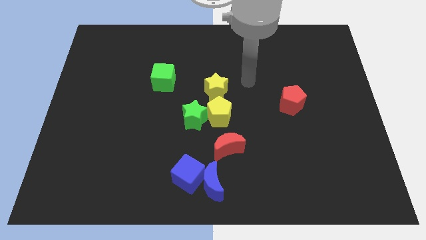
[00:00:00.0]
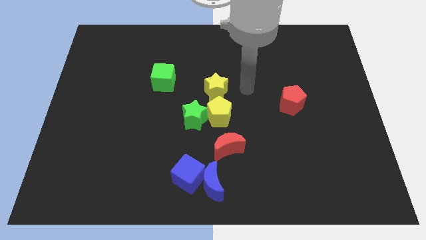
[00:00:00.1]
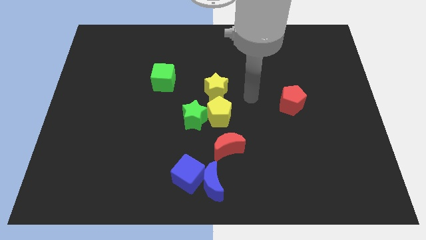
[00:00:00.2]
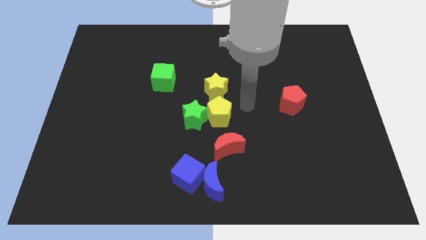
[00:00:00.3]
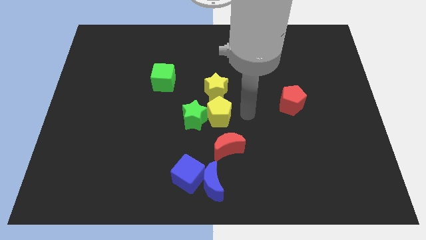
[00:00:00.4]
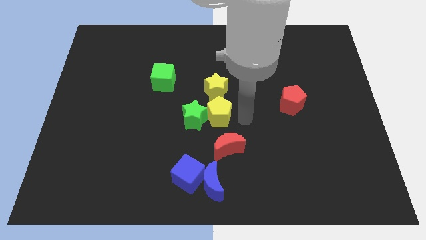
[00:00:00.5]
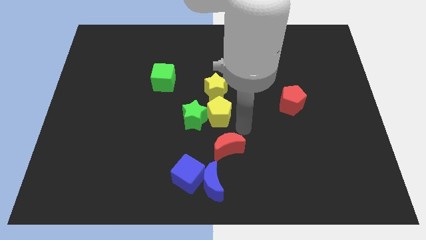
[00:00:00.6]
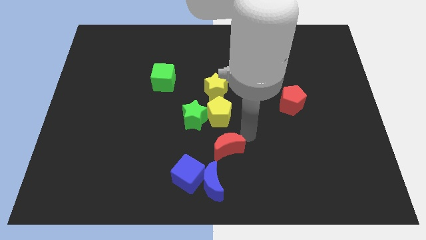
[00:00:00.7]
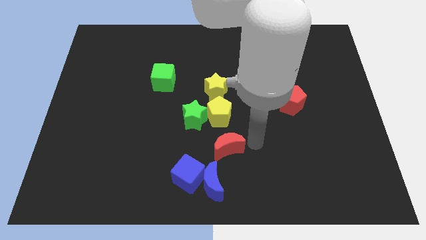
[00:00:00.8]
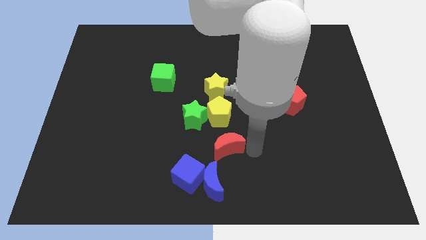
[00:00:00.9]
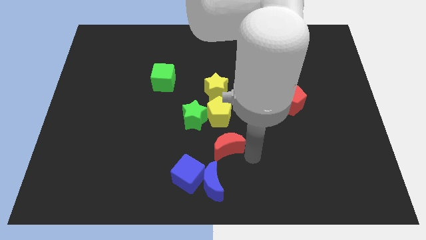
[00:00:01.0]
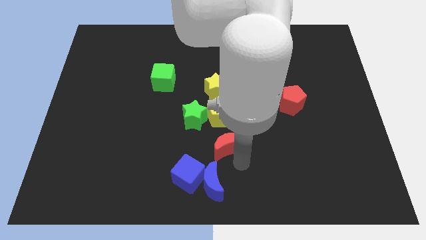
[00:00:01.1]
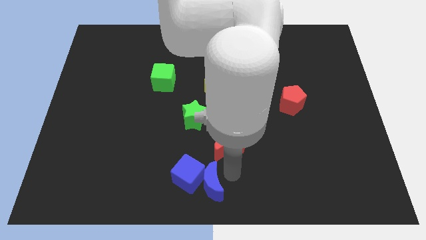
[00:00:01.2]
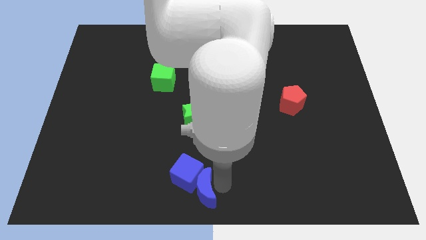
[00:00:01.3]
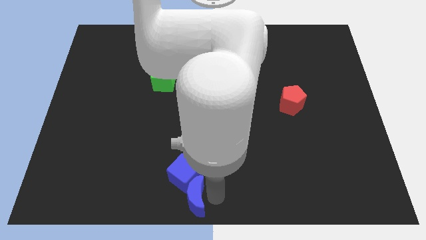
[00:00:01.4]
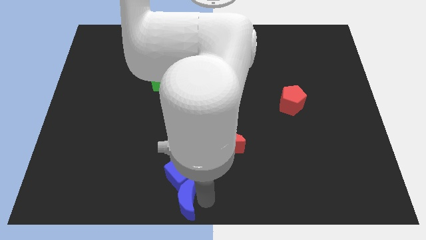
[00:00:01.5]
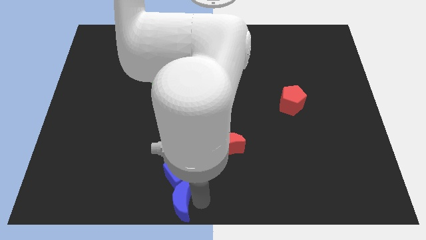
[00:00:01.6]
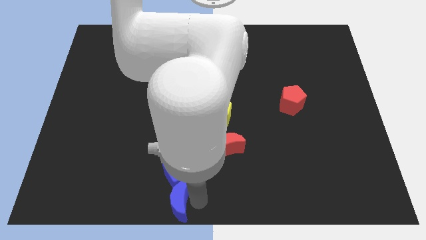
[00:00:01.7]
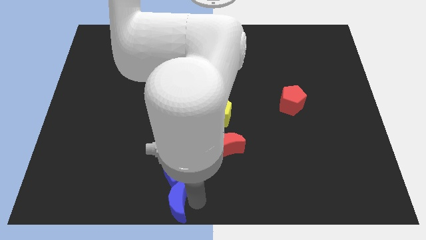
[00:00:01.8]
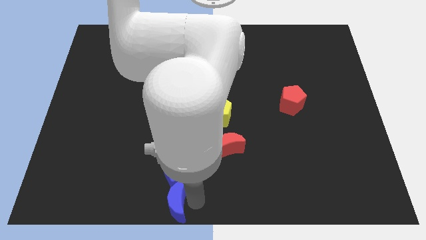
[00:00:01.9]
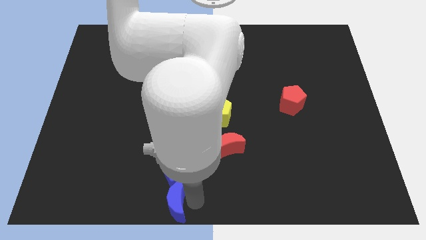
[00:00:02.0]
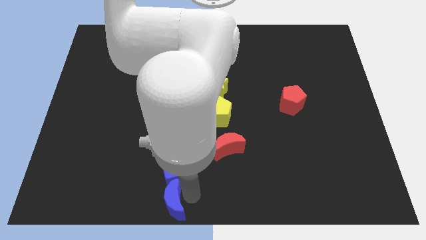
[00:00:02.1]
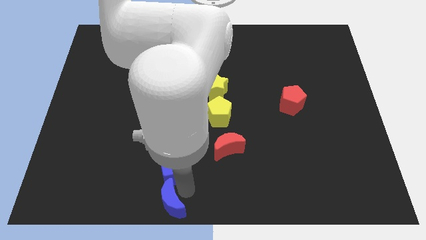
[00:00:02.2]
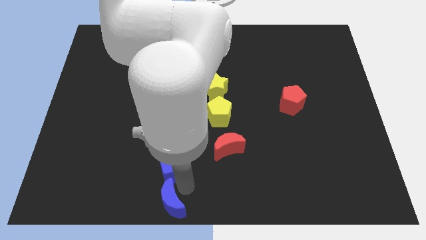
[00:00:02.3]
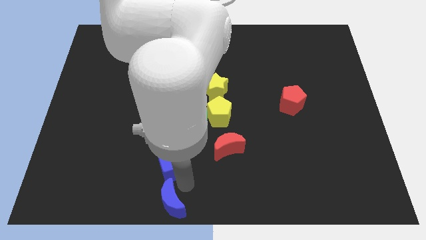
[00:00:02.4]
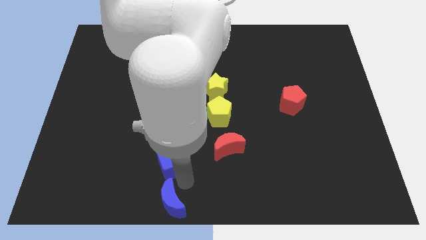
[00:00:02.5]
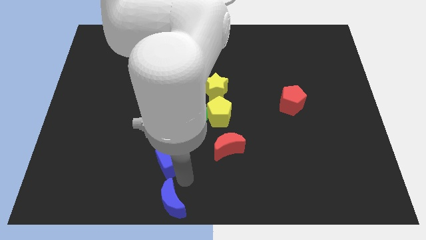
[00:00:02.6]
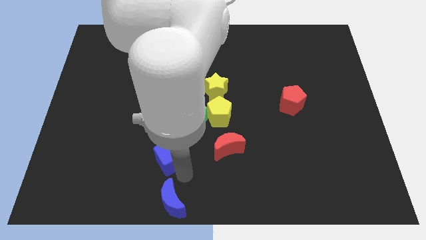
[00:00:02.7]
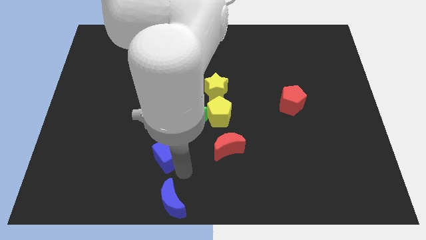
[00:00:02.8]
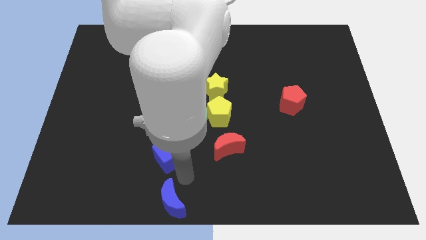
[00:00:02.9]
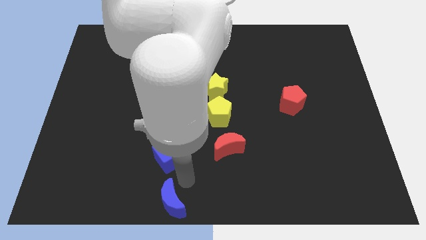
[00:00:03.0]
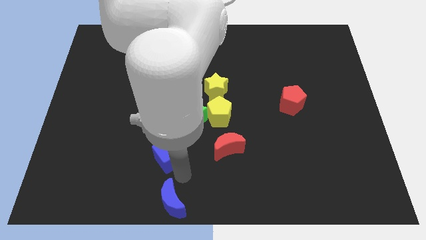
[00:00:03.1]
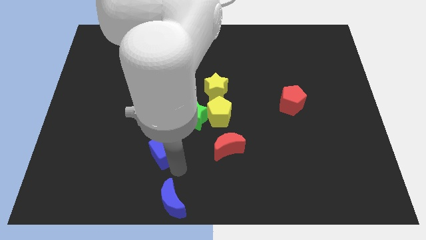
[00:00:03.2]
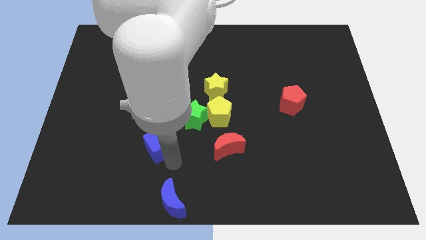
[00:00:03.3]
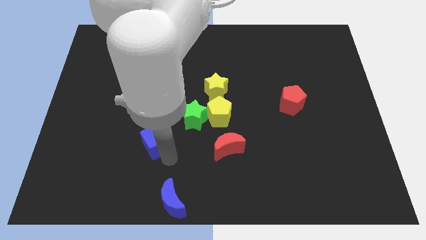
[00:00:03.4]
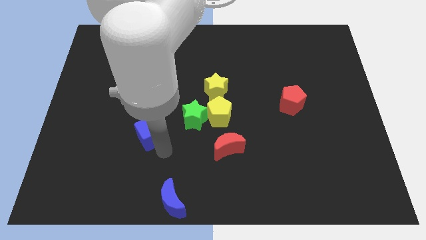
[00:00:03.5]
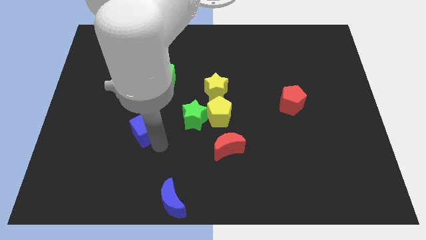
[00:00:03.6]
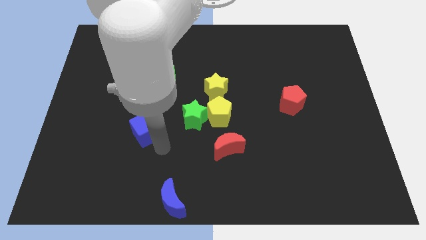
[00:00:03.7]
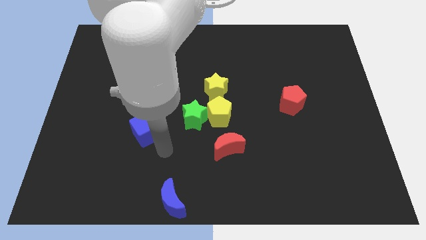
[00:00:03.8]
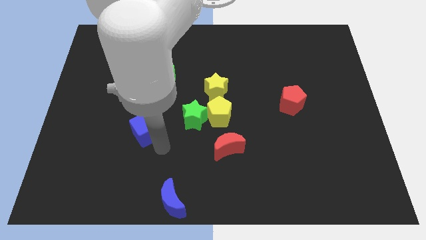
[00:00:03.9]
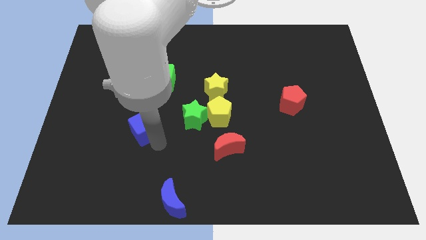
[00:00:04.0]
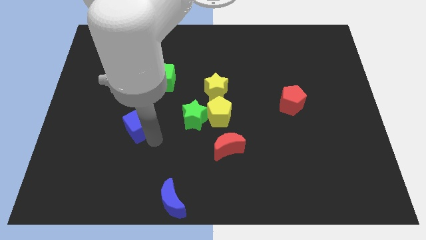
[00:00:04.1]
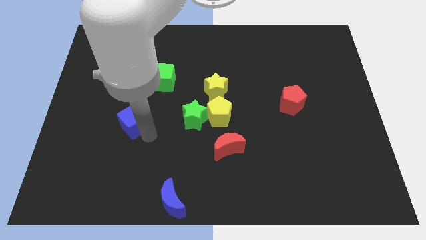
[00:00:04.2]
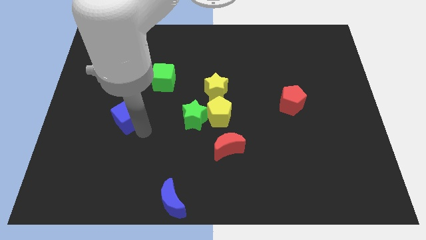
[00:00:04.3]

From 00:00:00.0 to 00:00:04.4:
move the blue cube up and to the left

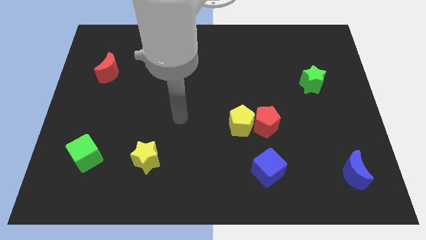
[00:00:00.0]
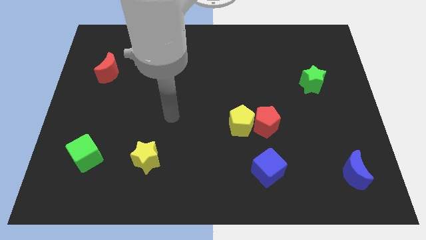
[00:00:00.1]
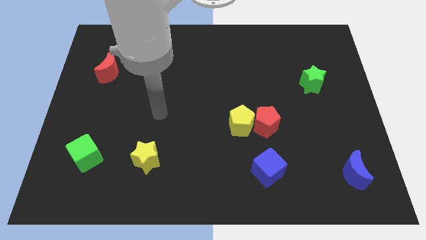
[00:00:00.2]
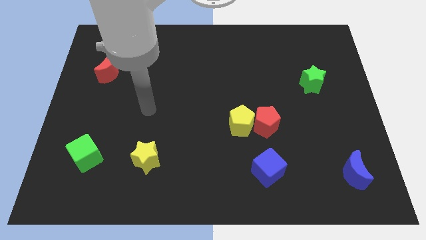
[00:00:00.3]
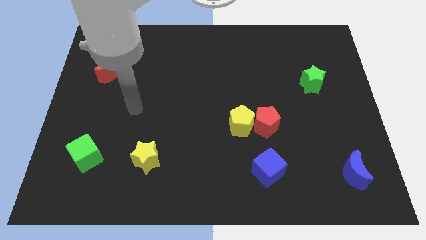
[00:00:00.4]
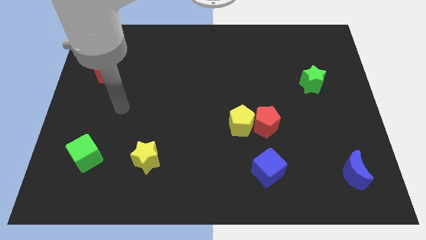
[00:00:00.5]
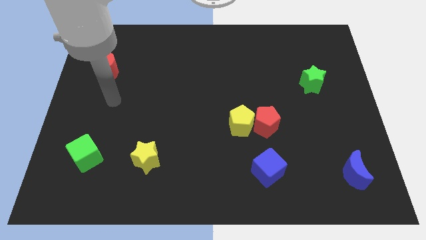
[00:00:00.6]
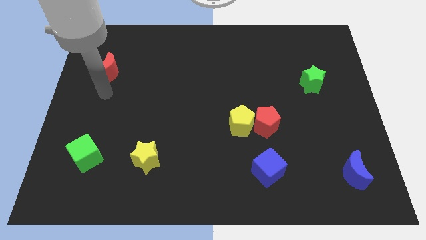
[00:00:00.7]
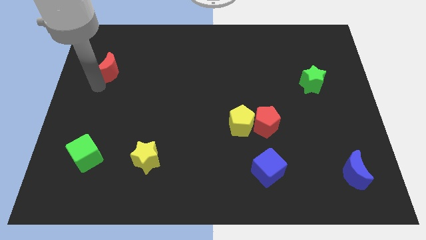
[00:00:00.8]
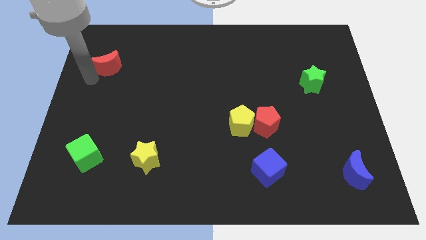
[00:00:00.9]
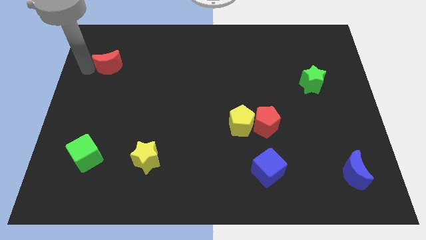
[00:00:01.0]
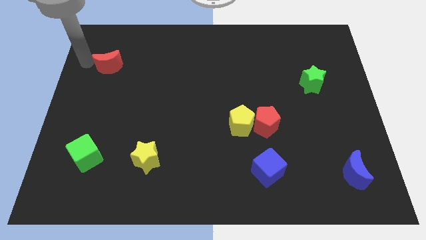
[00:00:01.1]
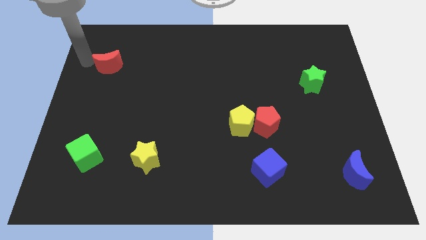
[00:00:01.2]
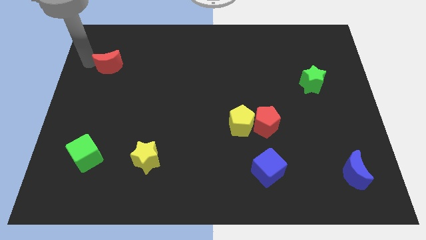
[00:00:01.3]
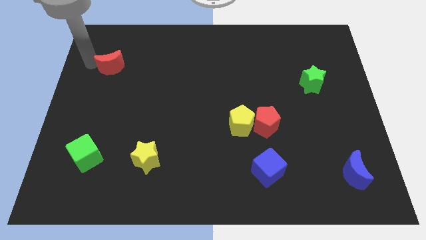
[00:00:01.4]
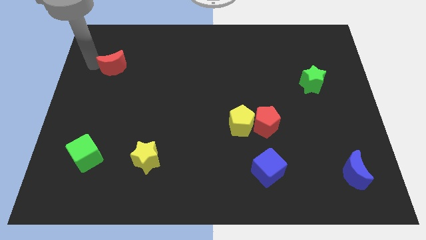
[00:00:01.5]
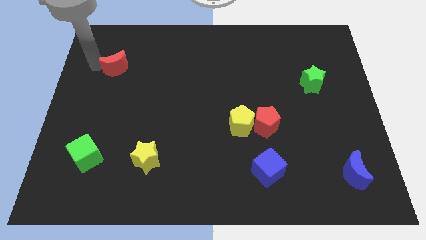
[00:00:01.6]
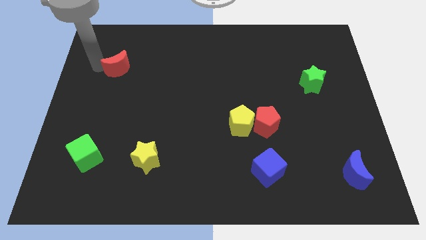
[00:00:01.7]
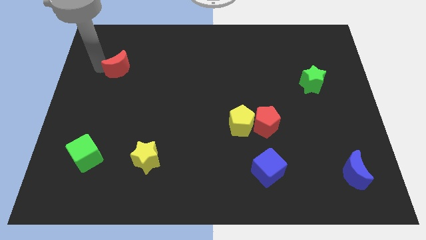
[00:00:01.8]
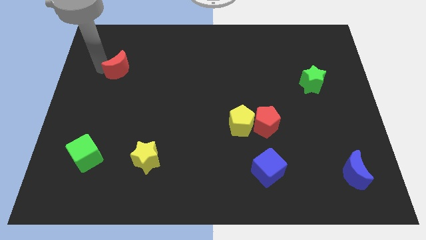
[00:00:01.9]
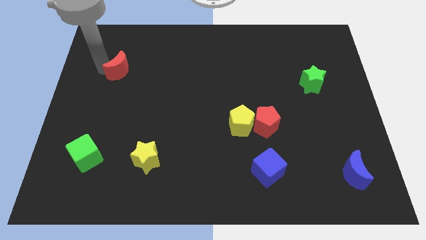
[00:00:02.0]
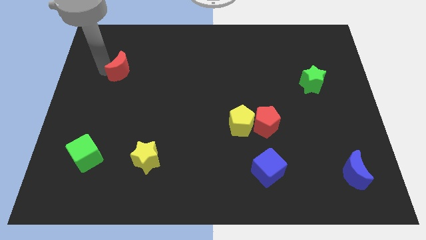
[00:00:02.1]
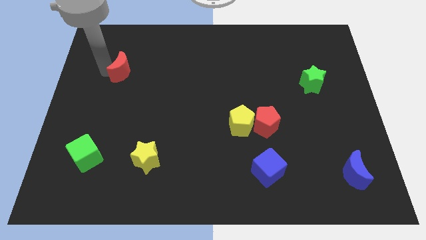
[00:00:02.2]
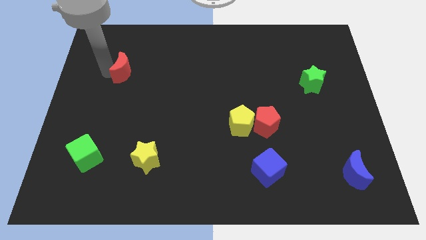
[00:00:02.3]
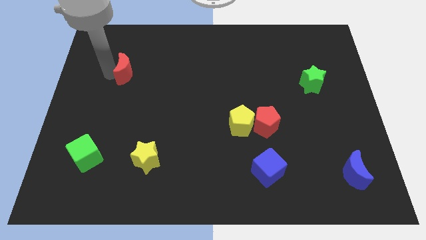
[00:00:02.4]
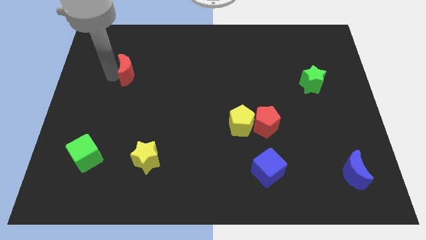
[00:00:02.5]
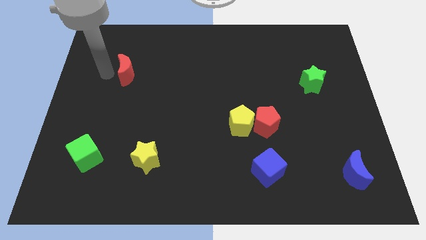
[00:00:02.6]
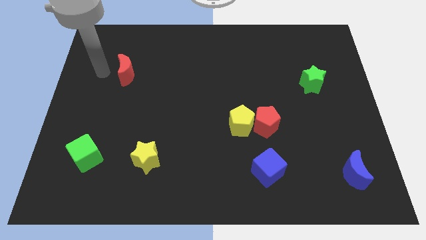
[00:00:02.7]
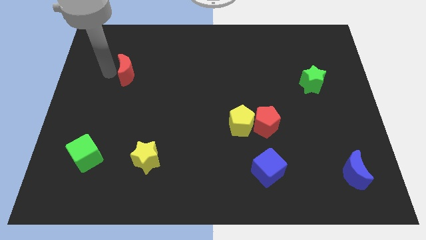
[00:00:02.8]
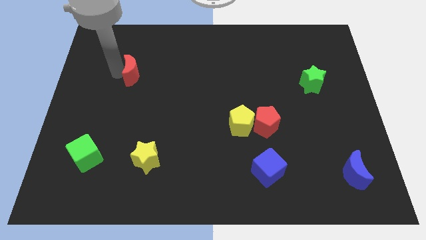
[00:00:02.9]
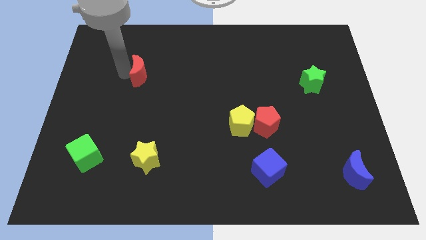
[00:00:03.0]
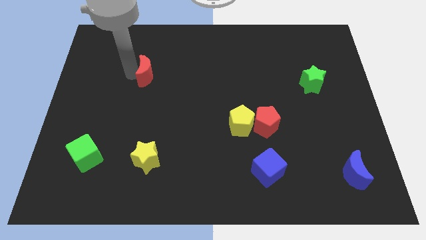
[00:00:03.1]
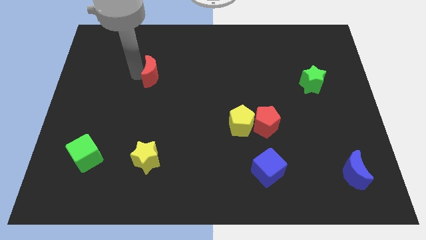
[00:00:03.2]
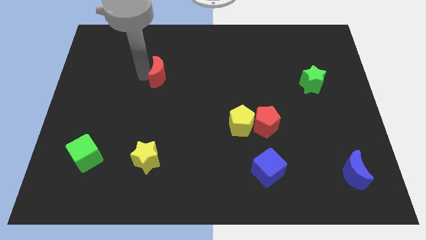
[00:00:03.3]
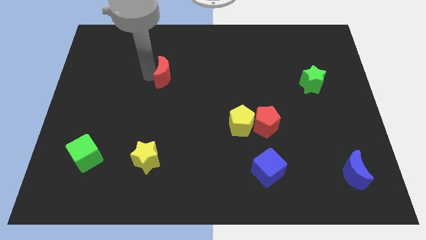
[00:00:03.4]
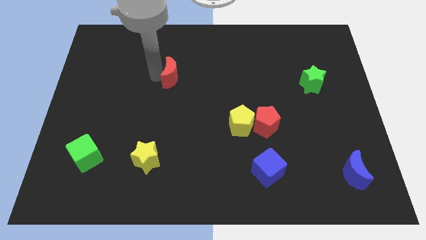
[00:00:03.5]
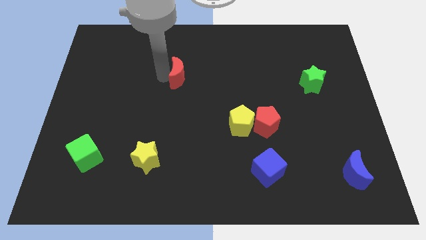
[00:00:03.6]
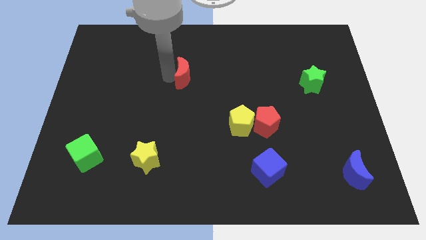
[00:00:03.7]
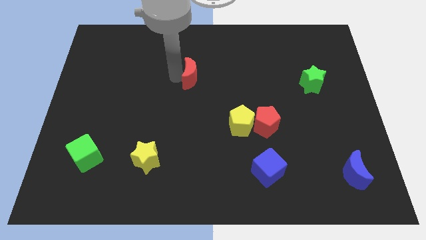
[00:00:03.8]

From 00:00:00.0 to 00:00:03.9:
push the red moon right
